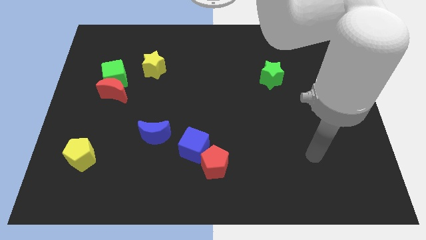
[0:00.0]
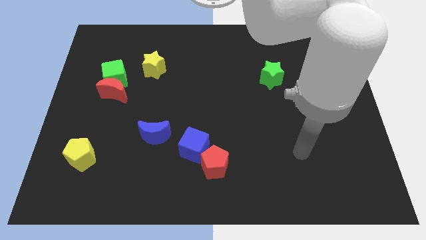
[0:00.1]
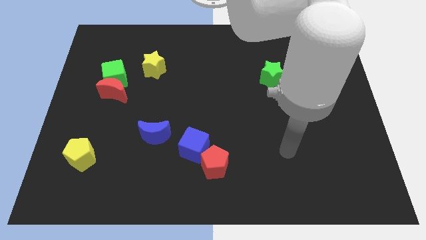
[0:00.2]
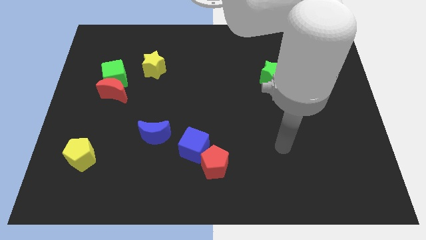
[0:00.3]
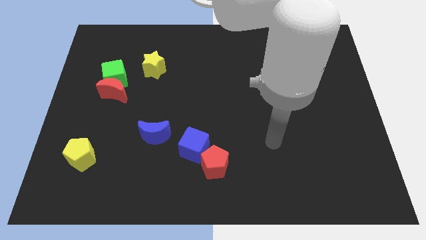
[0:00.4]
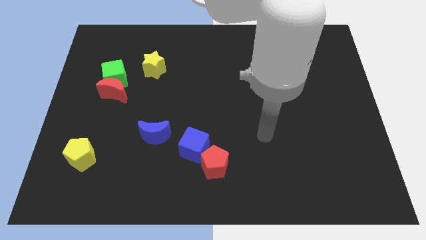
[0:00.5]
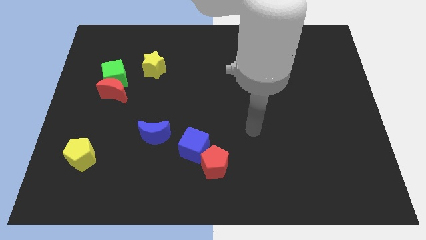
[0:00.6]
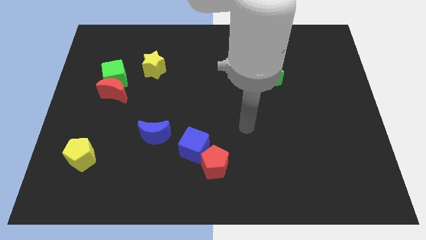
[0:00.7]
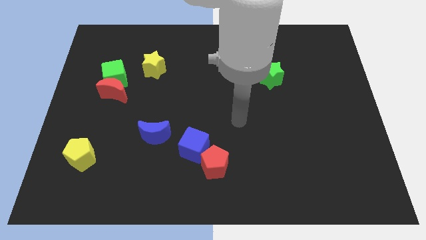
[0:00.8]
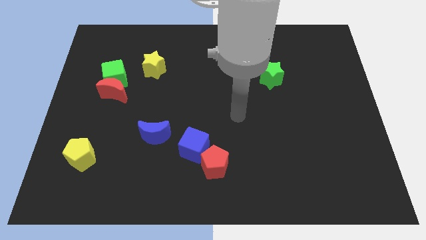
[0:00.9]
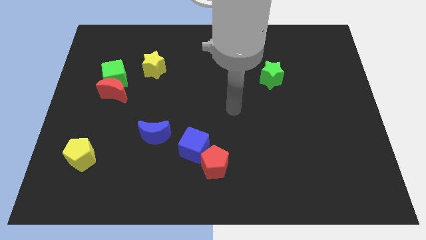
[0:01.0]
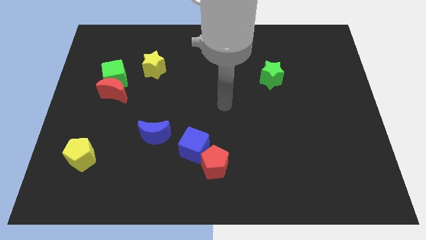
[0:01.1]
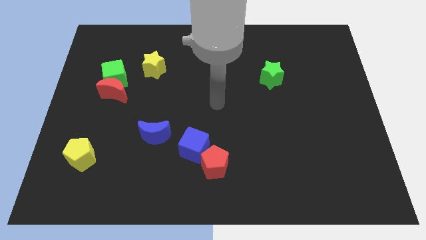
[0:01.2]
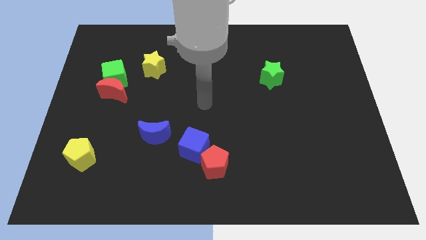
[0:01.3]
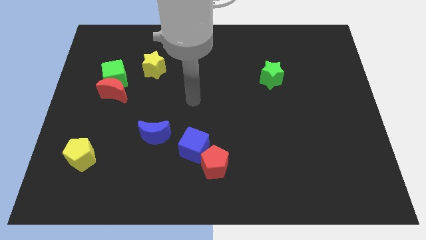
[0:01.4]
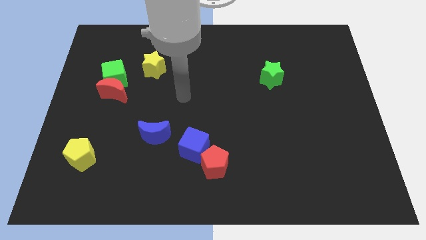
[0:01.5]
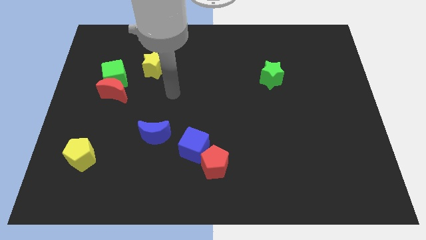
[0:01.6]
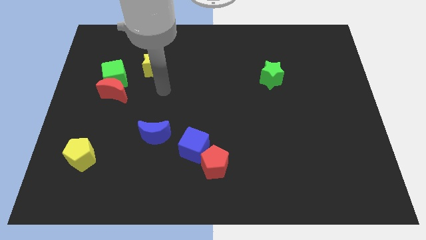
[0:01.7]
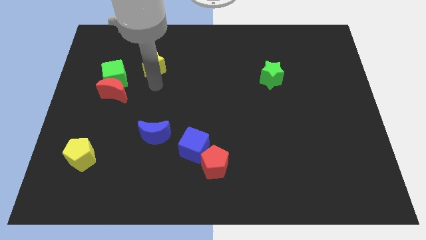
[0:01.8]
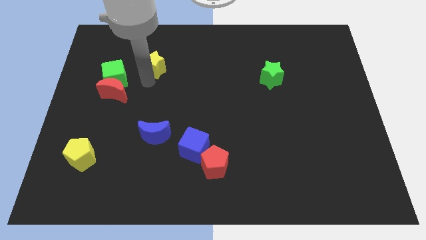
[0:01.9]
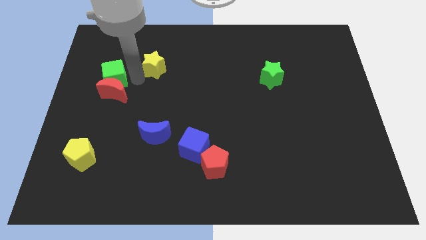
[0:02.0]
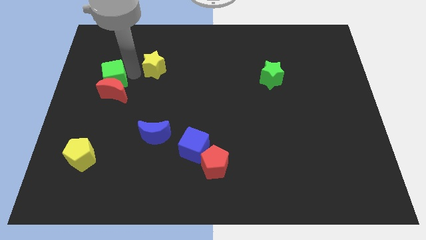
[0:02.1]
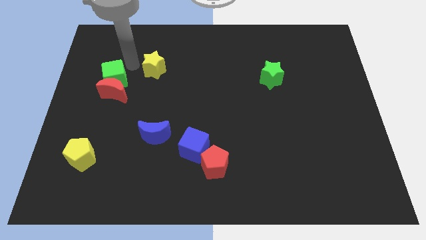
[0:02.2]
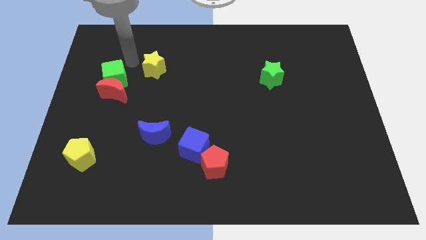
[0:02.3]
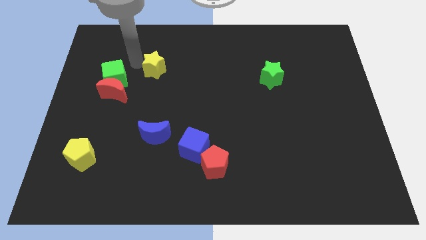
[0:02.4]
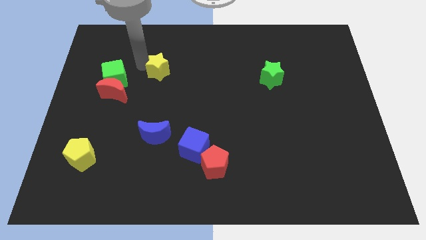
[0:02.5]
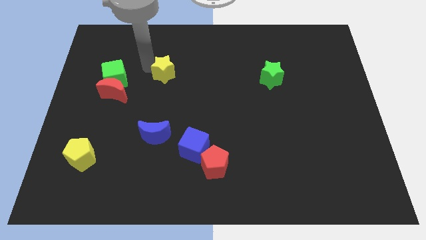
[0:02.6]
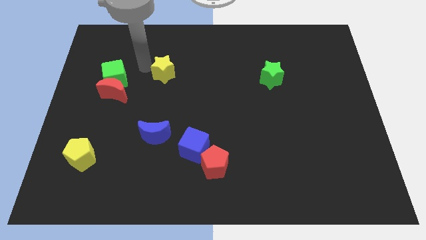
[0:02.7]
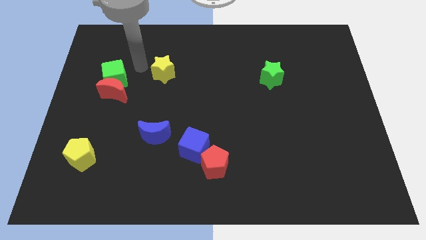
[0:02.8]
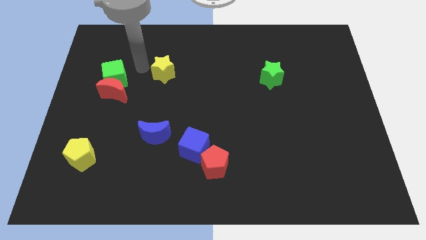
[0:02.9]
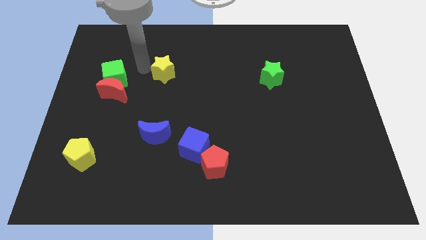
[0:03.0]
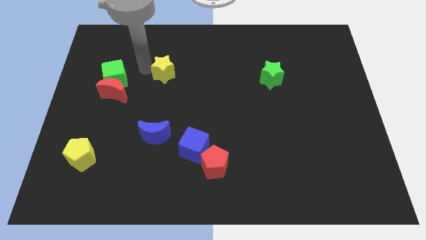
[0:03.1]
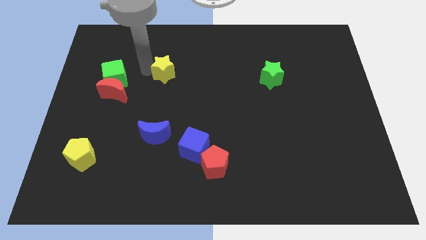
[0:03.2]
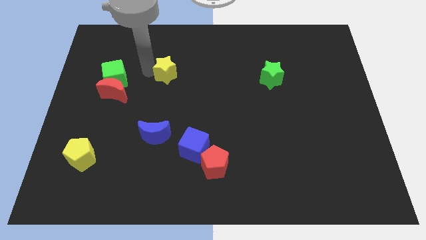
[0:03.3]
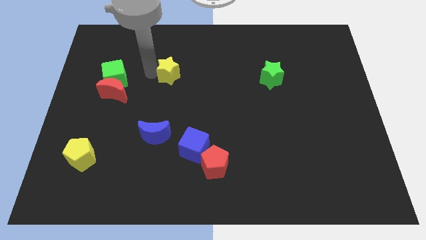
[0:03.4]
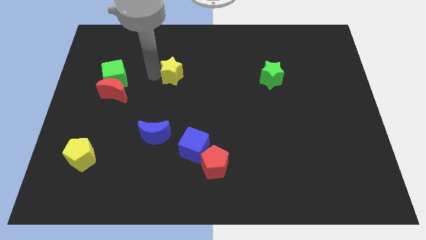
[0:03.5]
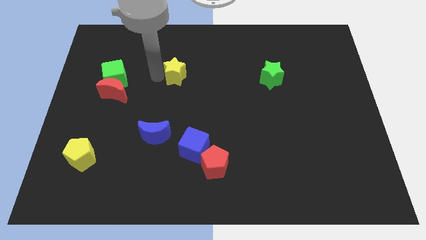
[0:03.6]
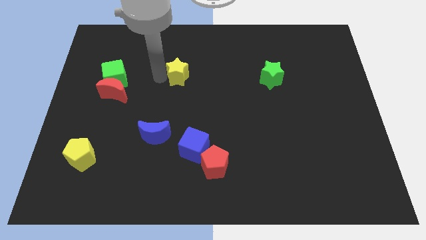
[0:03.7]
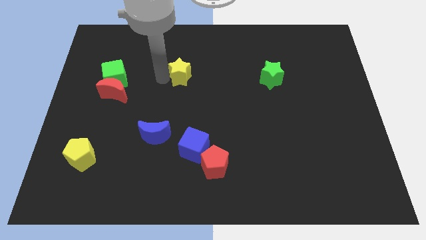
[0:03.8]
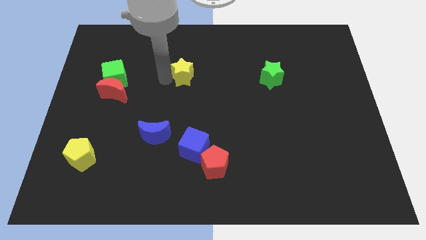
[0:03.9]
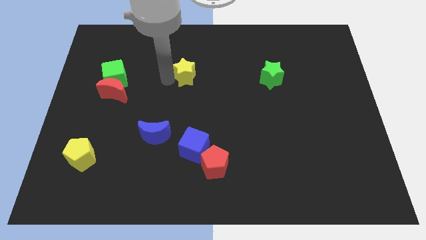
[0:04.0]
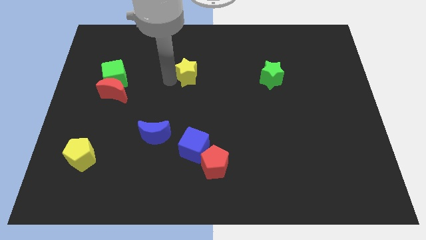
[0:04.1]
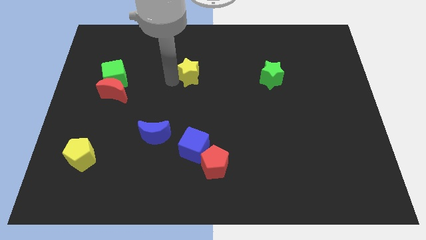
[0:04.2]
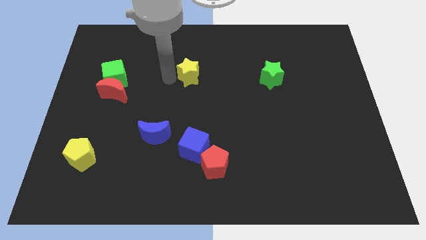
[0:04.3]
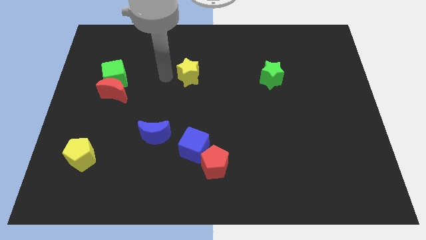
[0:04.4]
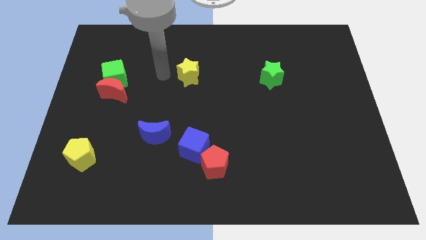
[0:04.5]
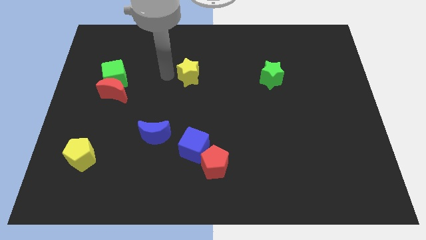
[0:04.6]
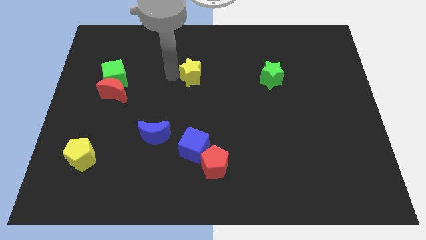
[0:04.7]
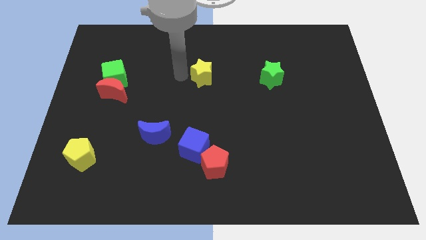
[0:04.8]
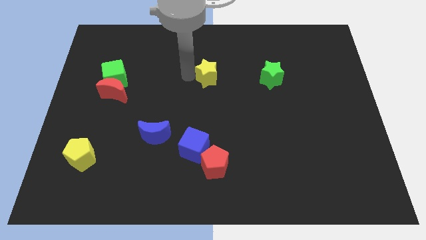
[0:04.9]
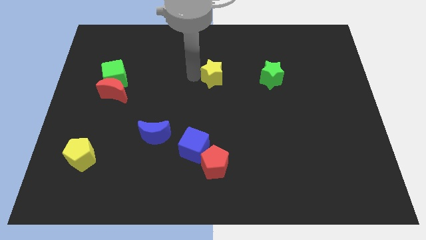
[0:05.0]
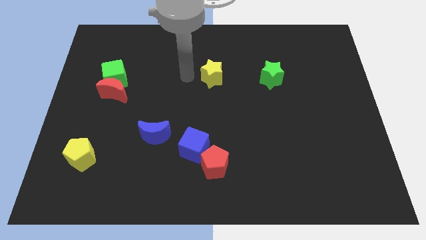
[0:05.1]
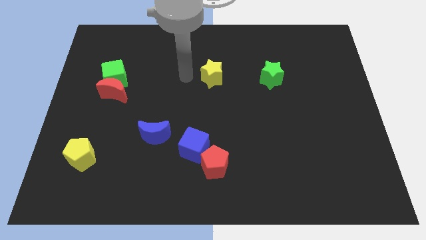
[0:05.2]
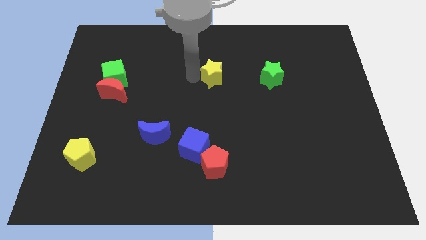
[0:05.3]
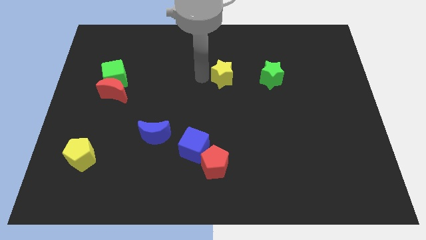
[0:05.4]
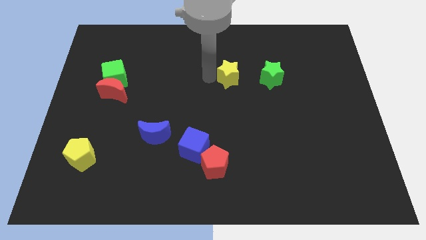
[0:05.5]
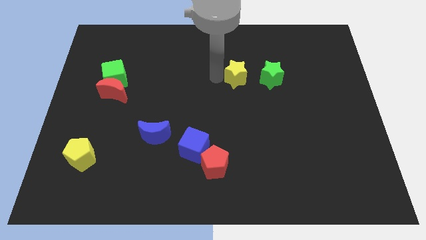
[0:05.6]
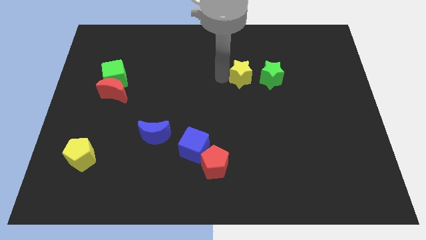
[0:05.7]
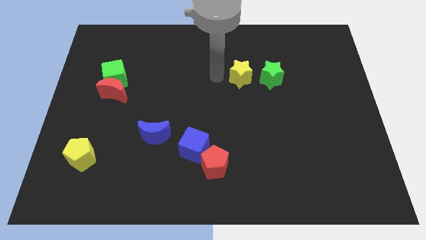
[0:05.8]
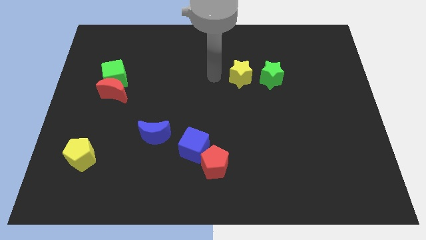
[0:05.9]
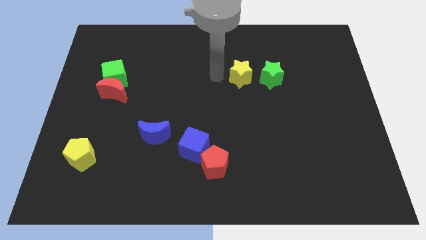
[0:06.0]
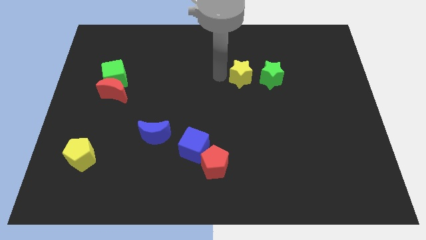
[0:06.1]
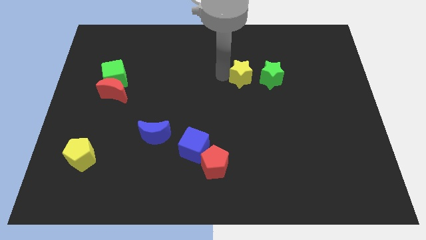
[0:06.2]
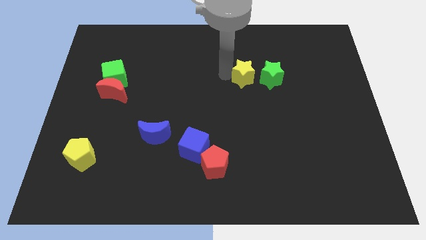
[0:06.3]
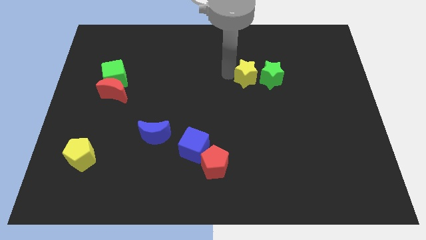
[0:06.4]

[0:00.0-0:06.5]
put the yellow star close to the green star

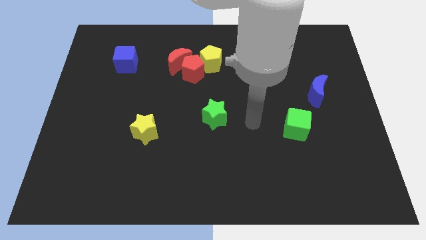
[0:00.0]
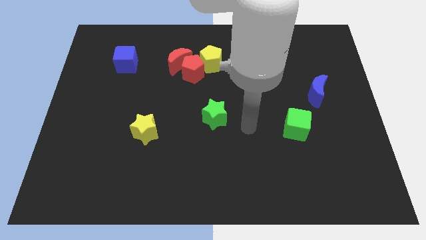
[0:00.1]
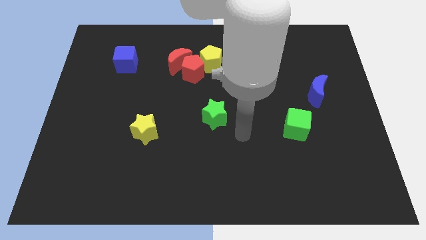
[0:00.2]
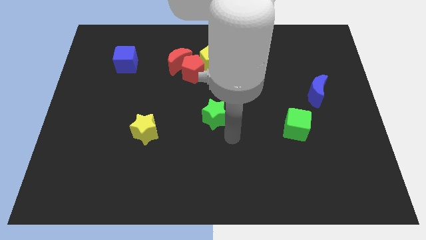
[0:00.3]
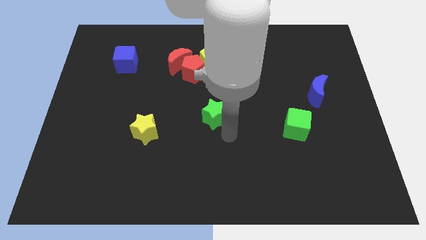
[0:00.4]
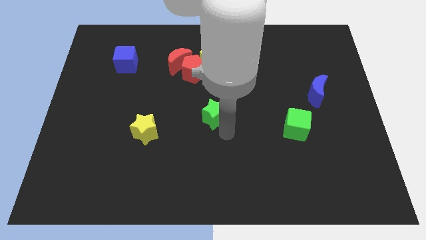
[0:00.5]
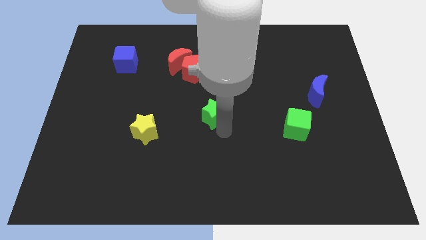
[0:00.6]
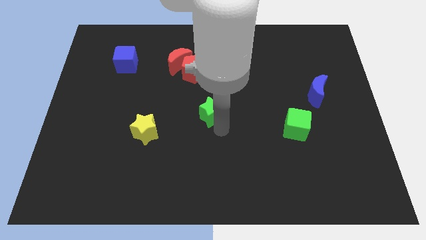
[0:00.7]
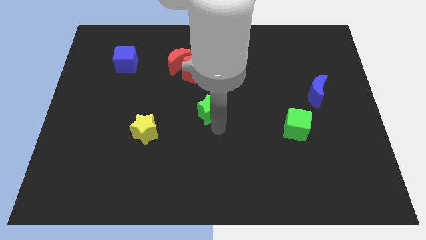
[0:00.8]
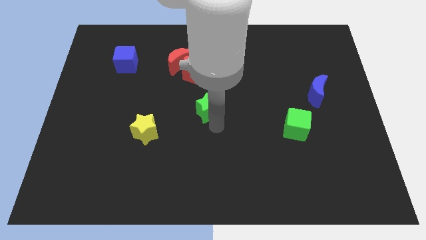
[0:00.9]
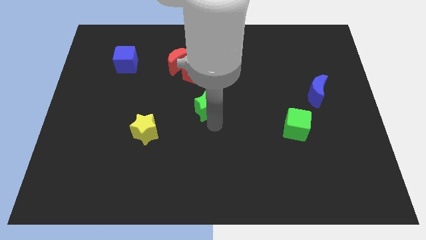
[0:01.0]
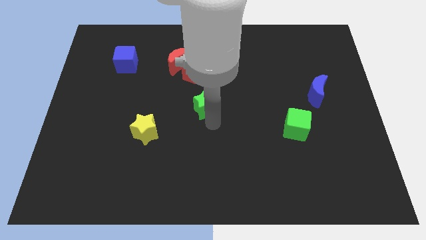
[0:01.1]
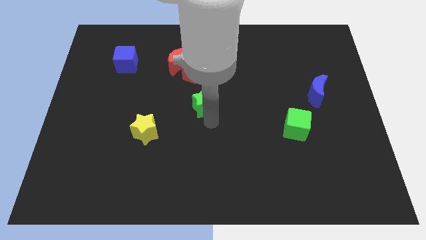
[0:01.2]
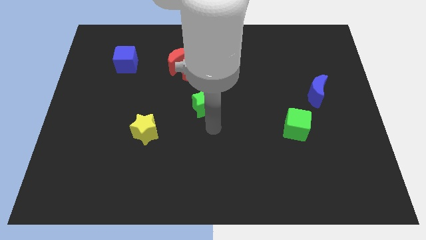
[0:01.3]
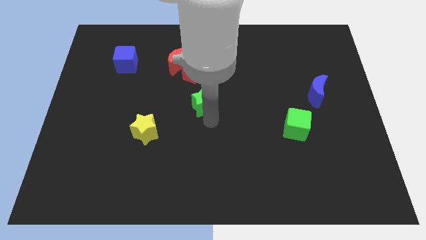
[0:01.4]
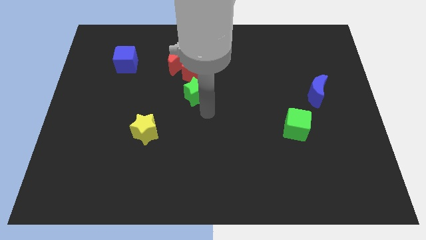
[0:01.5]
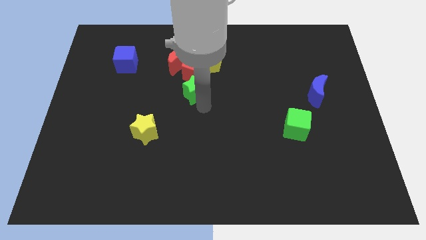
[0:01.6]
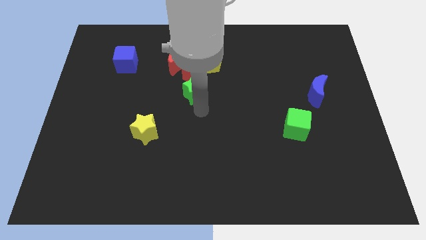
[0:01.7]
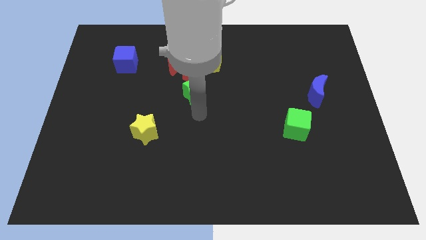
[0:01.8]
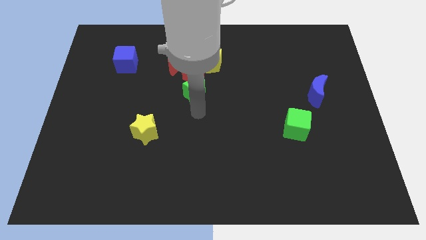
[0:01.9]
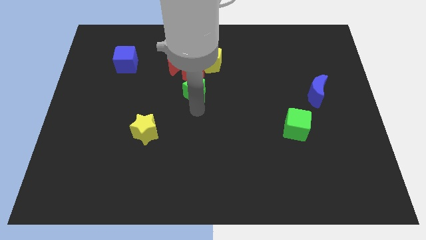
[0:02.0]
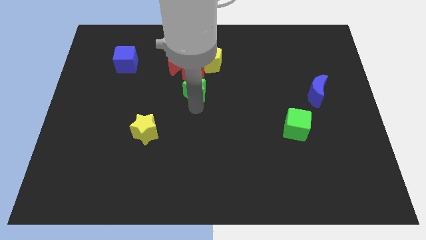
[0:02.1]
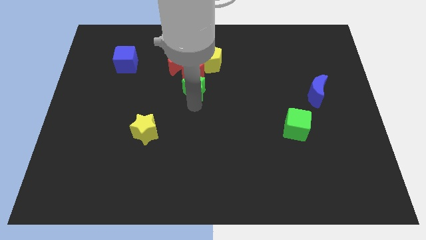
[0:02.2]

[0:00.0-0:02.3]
move the green star towards the red pentagon
